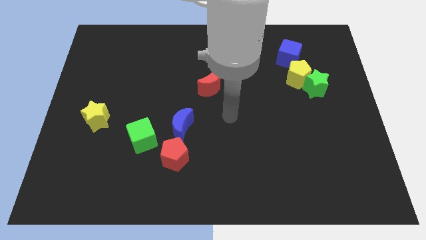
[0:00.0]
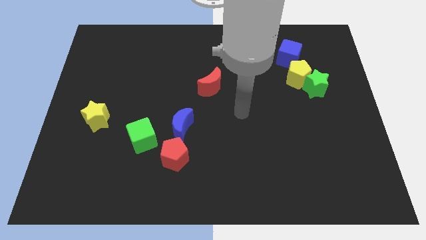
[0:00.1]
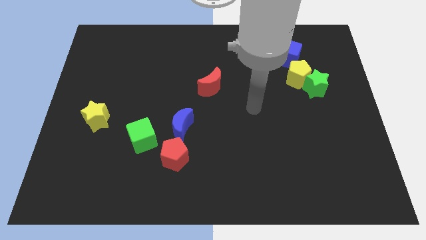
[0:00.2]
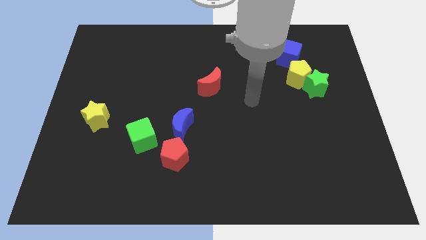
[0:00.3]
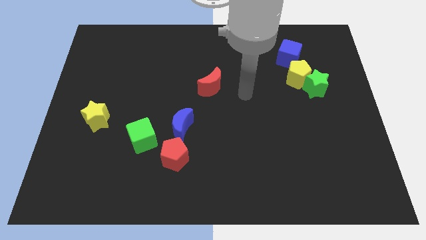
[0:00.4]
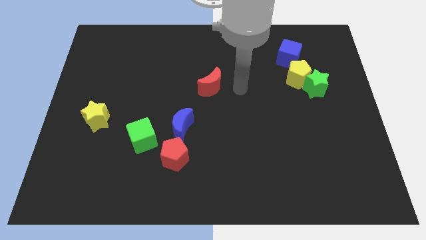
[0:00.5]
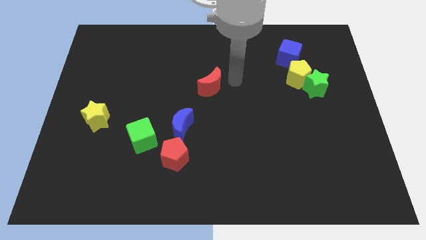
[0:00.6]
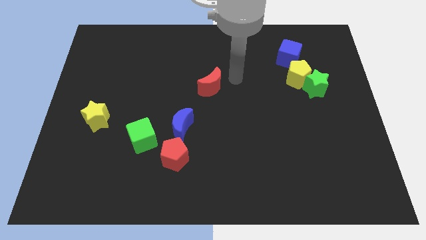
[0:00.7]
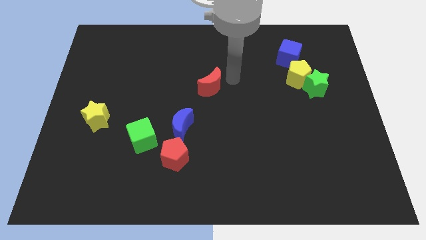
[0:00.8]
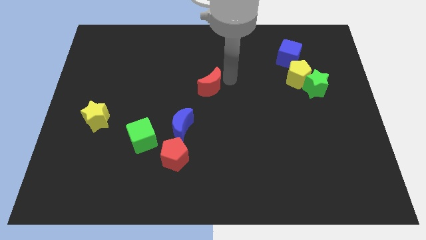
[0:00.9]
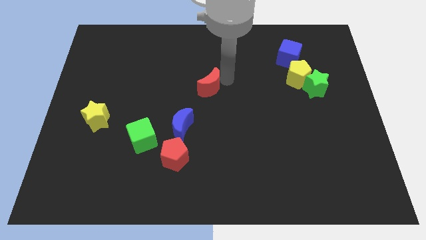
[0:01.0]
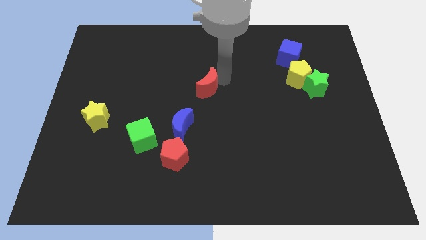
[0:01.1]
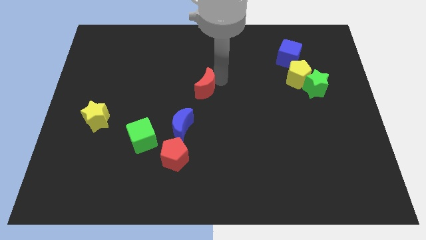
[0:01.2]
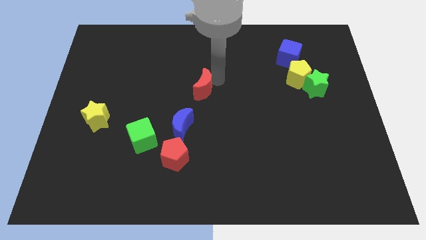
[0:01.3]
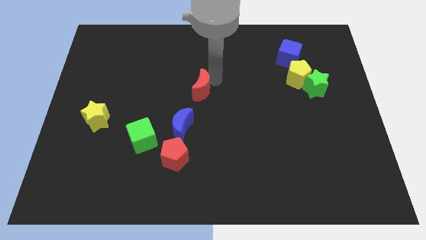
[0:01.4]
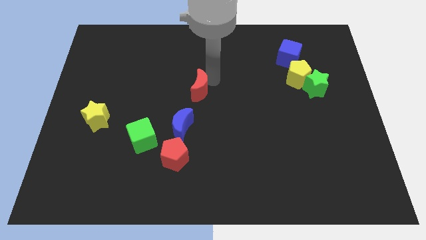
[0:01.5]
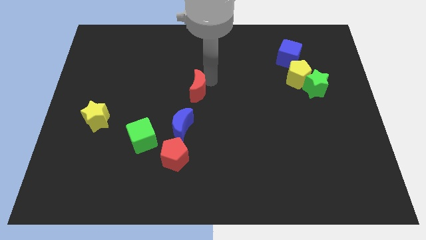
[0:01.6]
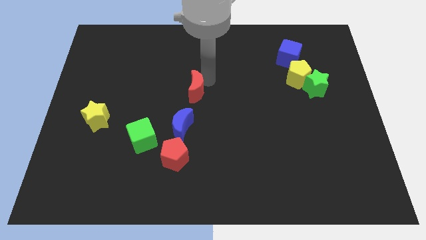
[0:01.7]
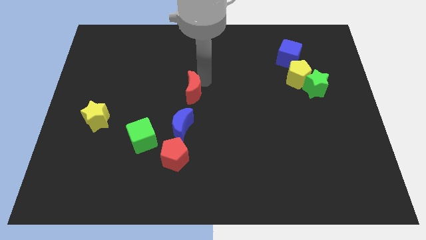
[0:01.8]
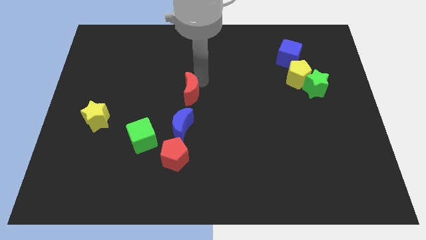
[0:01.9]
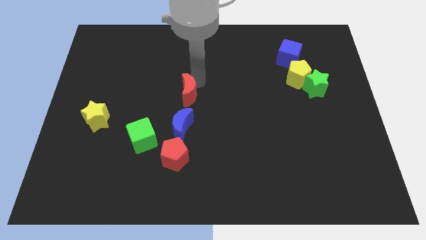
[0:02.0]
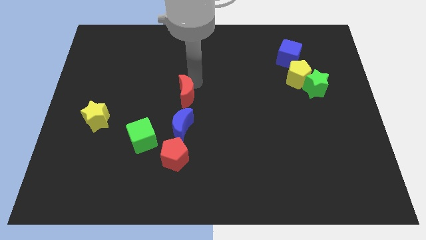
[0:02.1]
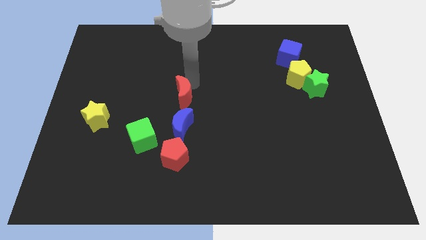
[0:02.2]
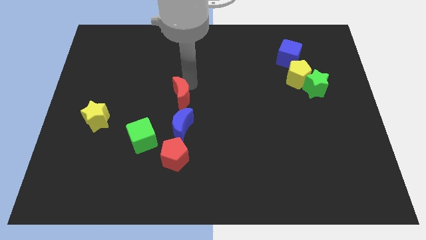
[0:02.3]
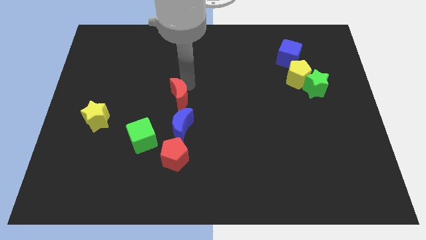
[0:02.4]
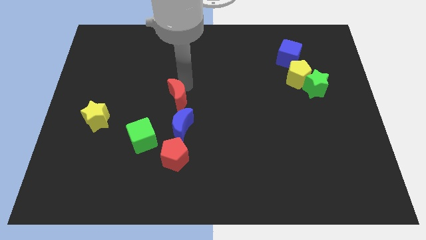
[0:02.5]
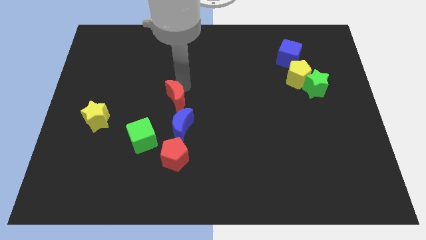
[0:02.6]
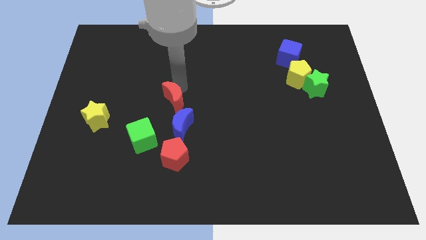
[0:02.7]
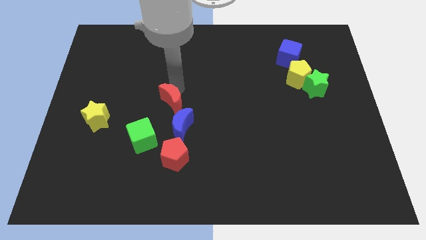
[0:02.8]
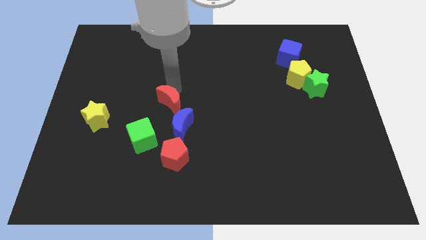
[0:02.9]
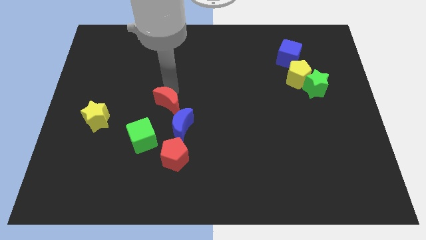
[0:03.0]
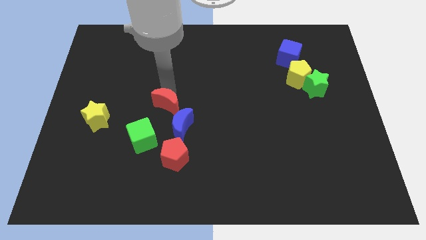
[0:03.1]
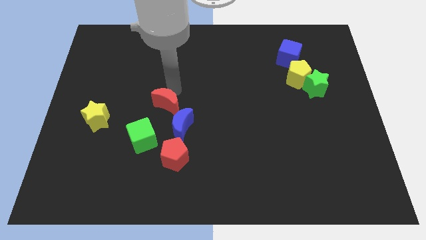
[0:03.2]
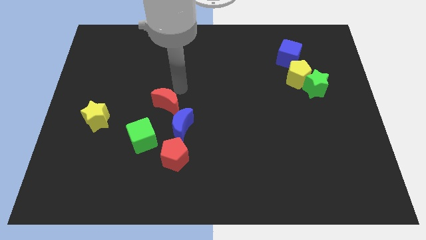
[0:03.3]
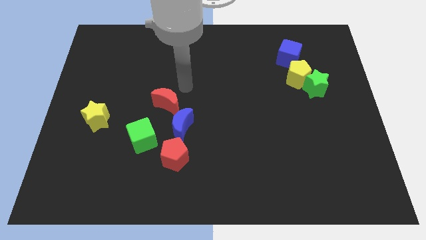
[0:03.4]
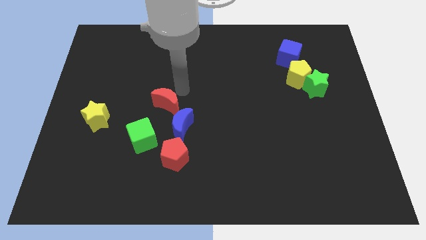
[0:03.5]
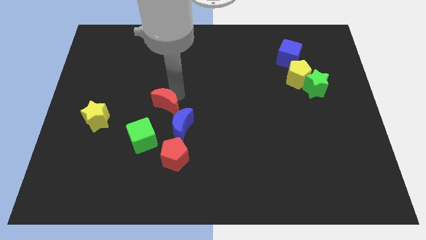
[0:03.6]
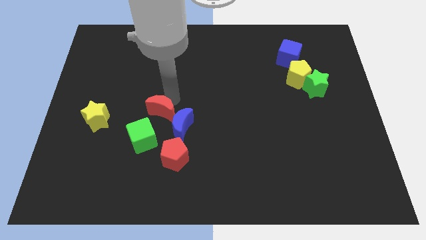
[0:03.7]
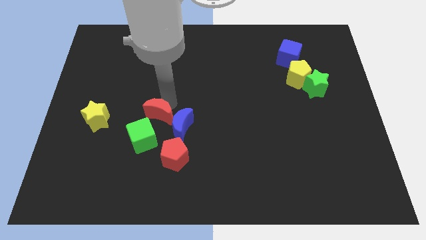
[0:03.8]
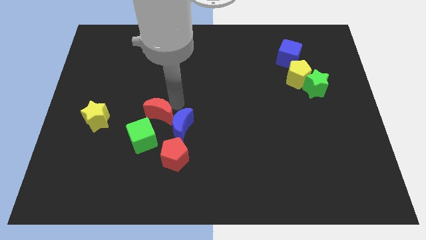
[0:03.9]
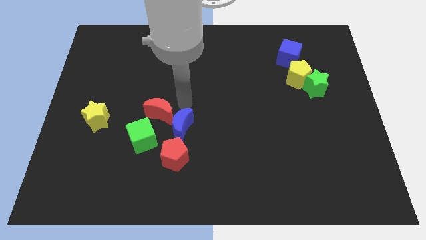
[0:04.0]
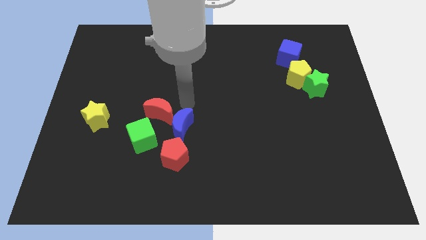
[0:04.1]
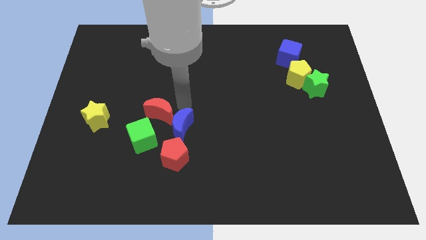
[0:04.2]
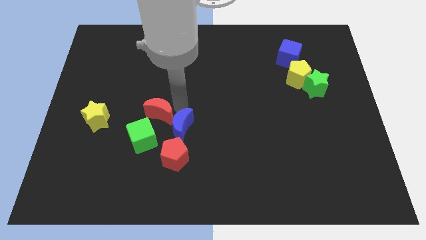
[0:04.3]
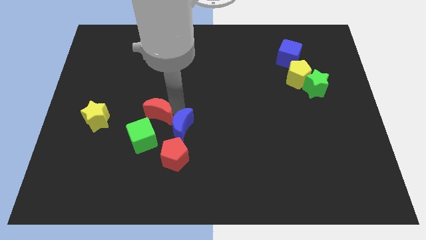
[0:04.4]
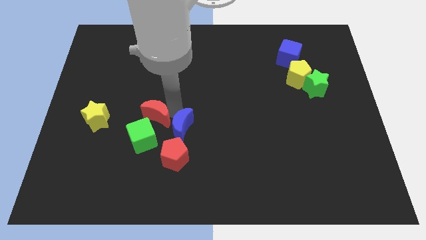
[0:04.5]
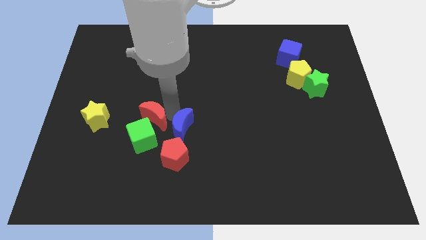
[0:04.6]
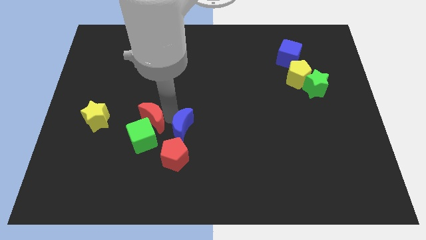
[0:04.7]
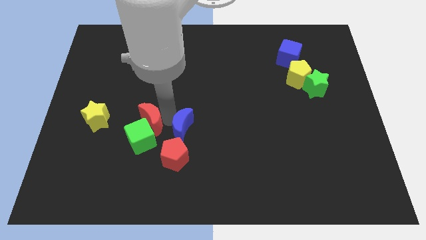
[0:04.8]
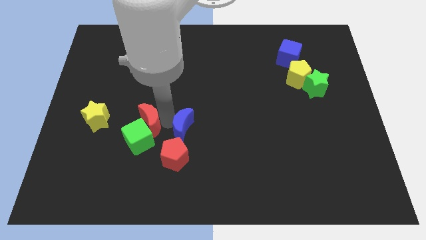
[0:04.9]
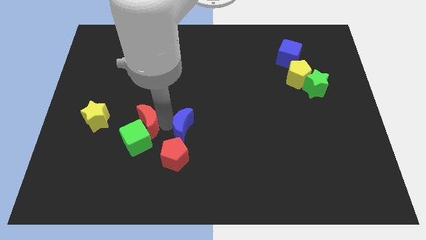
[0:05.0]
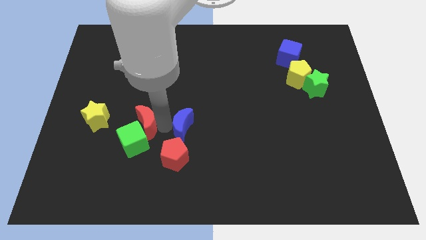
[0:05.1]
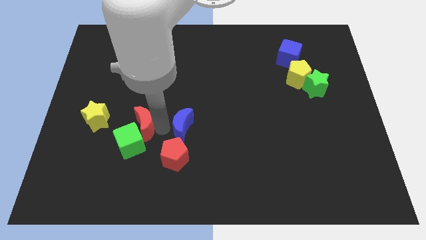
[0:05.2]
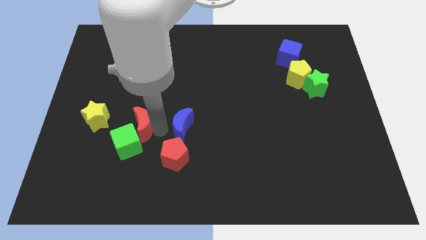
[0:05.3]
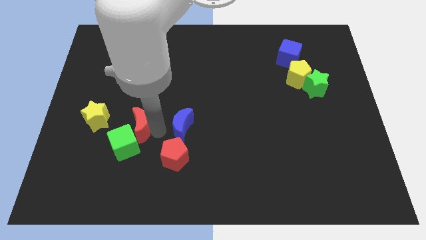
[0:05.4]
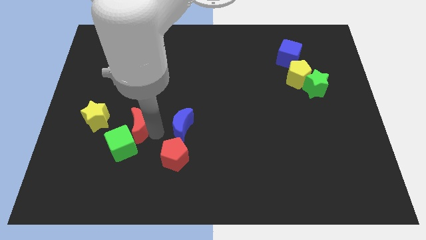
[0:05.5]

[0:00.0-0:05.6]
move the red moon diagonally downwards and to the left

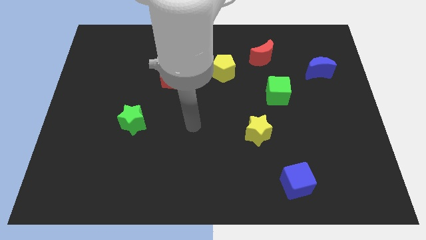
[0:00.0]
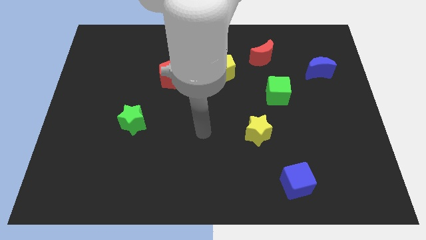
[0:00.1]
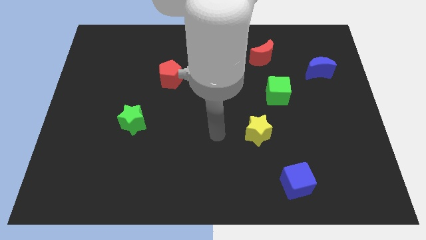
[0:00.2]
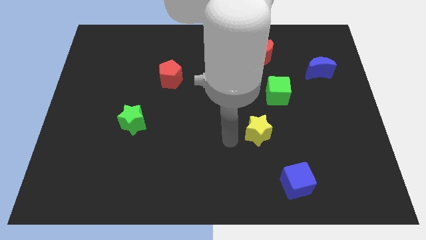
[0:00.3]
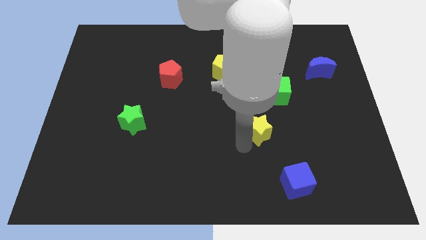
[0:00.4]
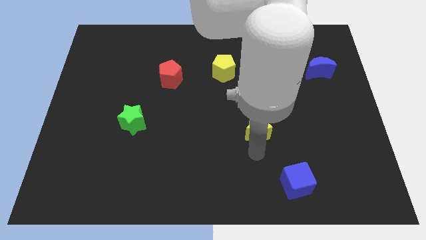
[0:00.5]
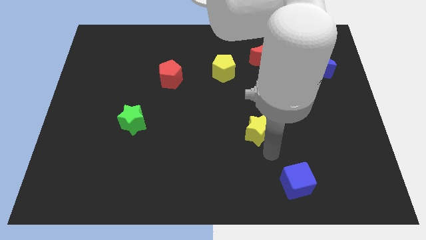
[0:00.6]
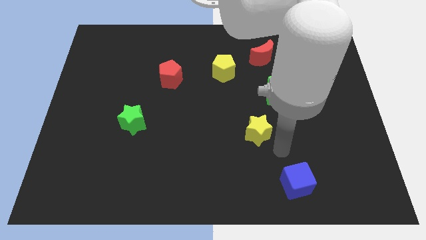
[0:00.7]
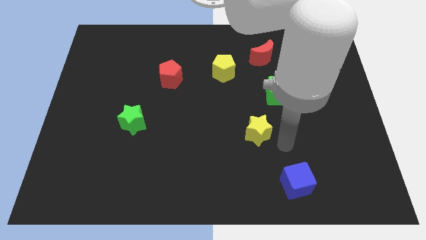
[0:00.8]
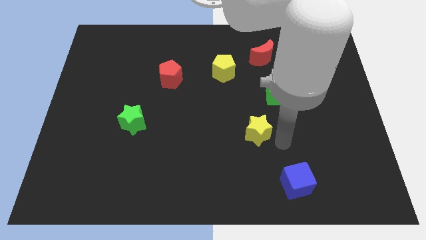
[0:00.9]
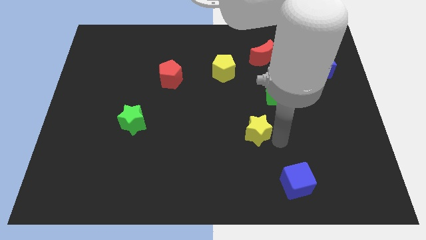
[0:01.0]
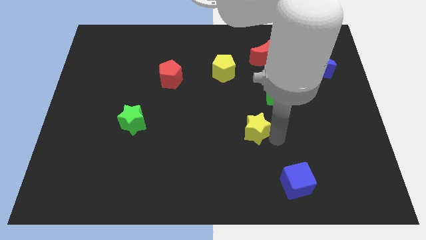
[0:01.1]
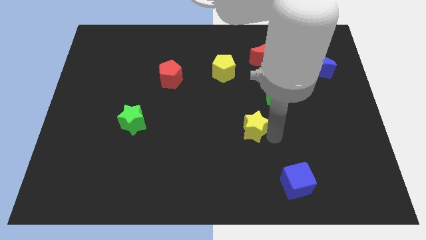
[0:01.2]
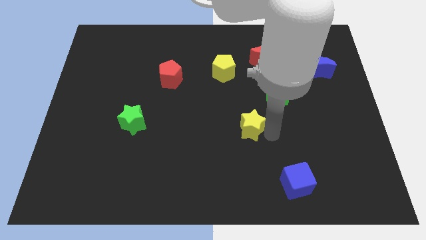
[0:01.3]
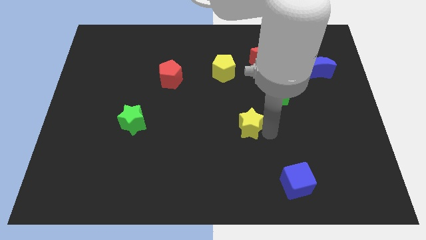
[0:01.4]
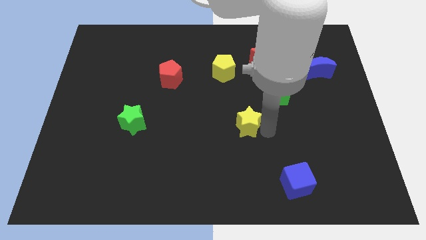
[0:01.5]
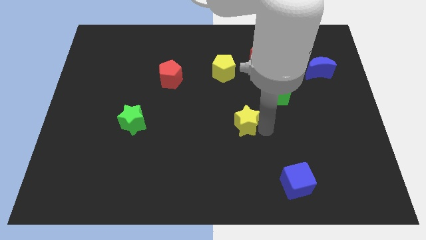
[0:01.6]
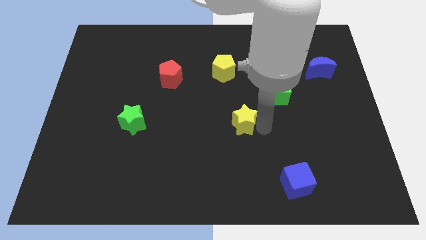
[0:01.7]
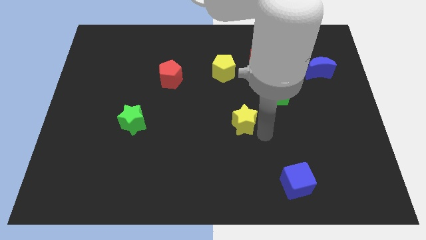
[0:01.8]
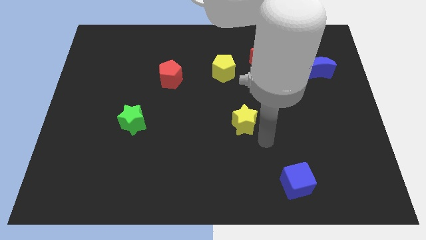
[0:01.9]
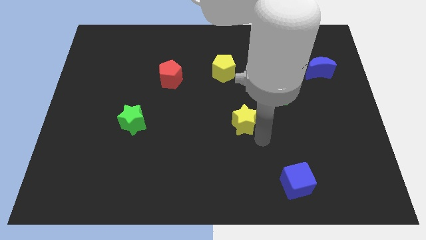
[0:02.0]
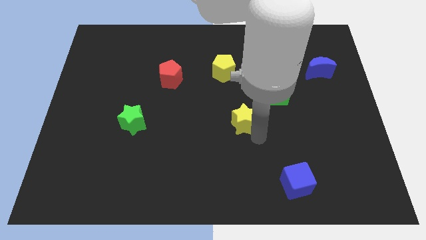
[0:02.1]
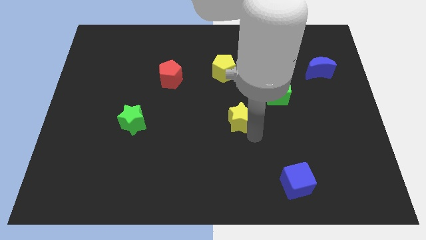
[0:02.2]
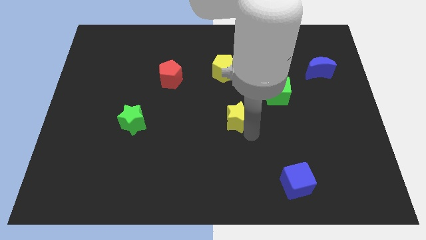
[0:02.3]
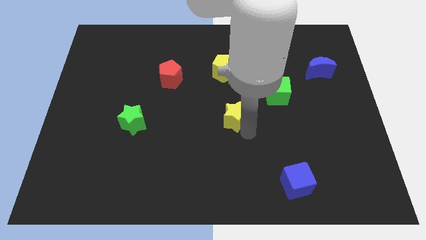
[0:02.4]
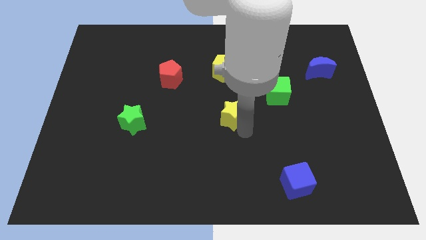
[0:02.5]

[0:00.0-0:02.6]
slide the yellow star somewhat diagonally up and to the left
